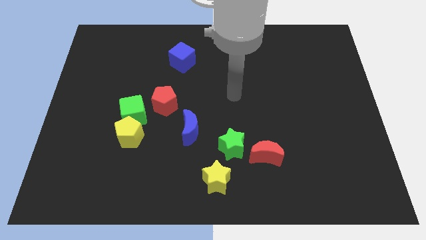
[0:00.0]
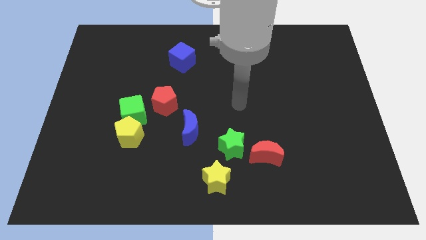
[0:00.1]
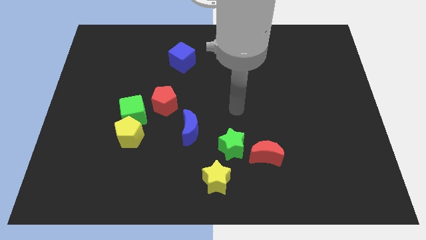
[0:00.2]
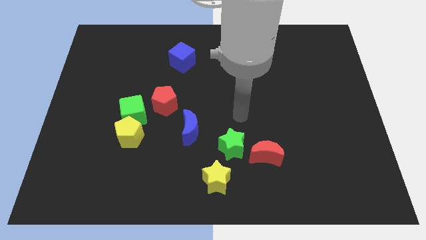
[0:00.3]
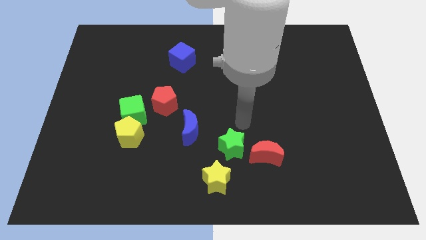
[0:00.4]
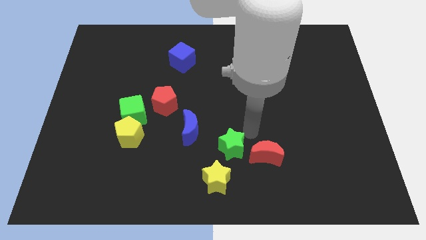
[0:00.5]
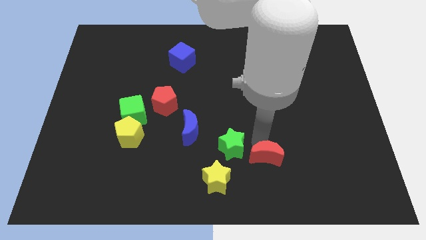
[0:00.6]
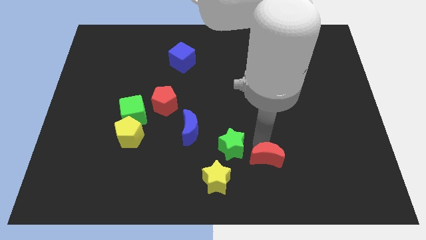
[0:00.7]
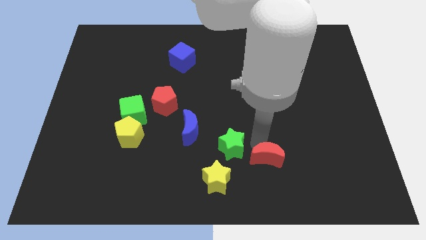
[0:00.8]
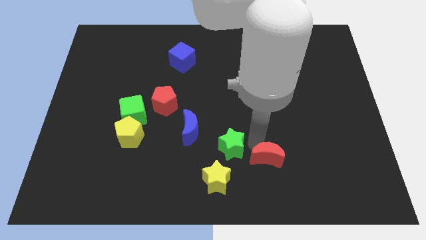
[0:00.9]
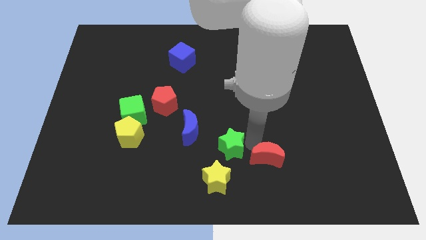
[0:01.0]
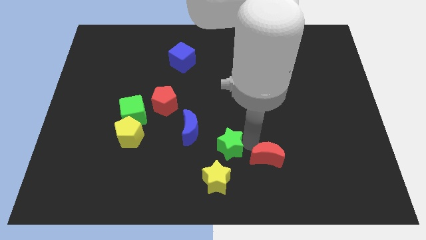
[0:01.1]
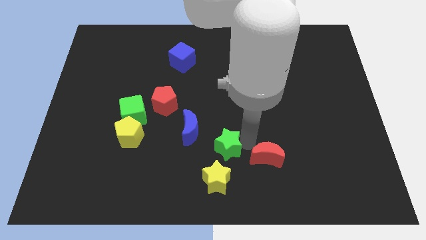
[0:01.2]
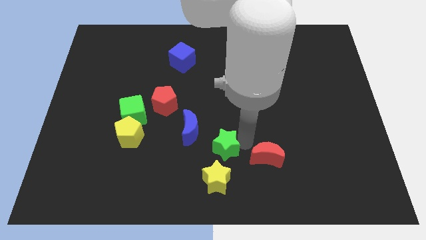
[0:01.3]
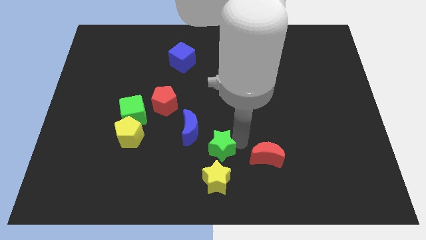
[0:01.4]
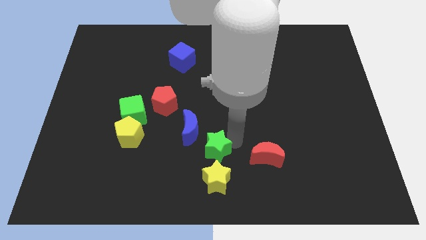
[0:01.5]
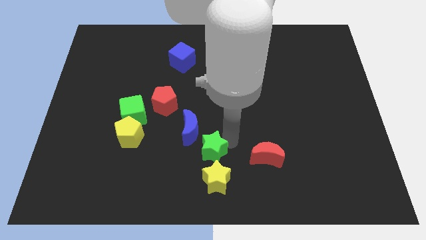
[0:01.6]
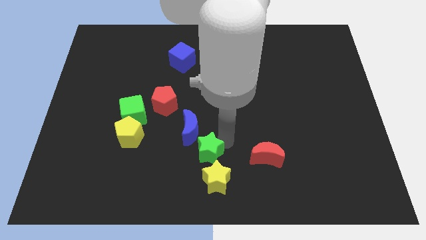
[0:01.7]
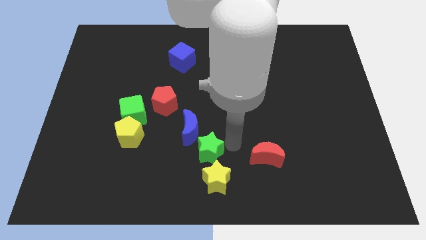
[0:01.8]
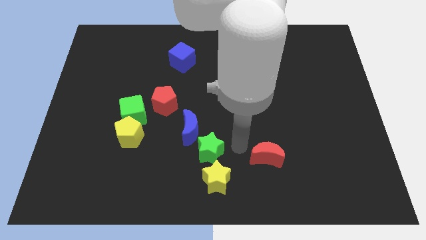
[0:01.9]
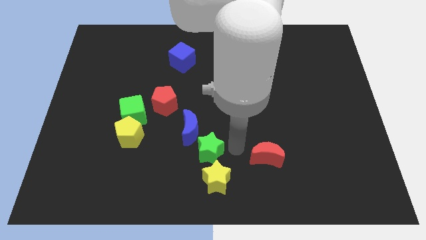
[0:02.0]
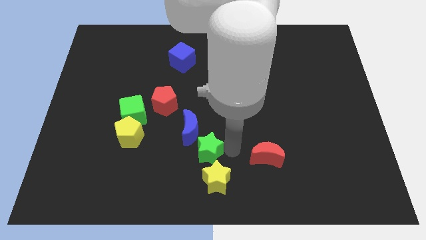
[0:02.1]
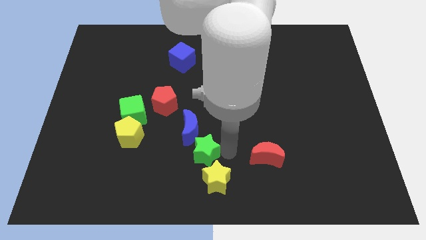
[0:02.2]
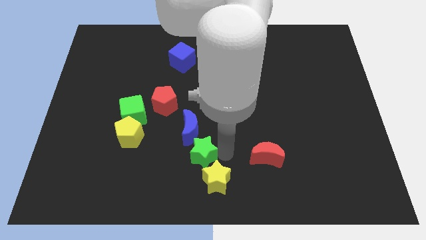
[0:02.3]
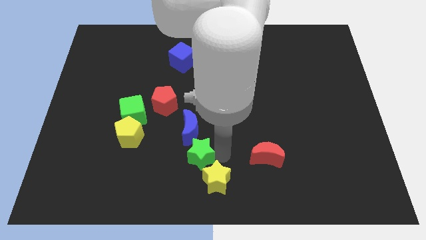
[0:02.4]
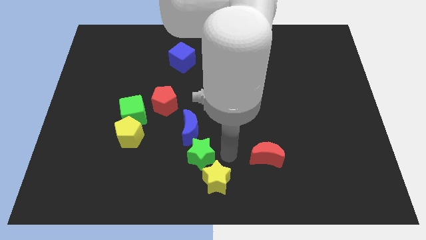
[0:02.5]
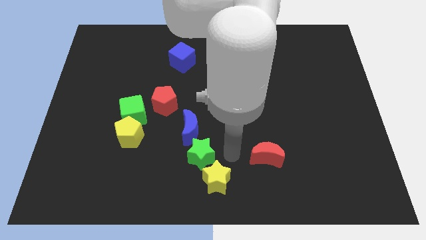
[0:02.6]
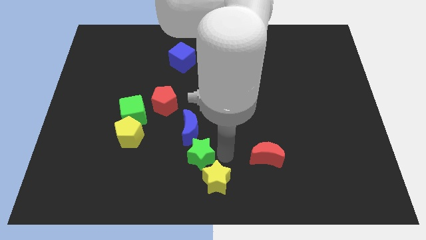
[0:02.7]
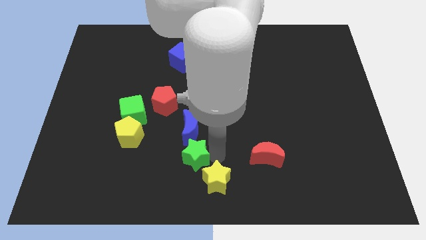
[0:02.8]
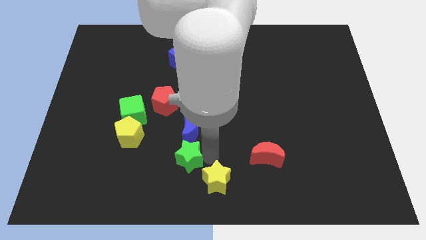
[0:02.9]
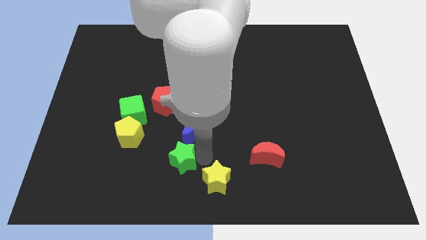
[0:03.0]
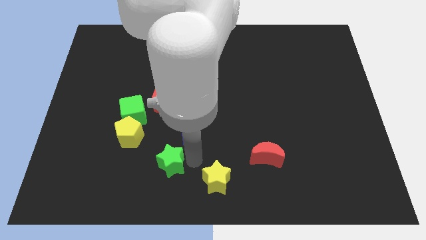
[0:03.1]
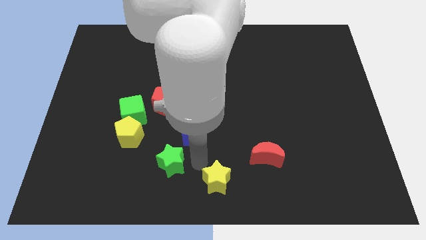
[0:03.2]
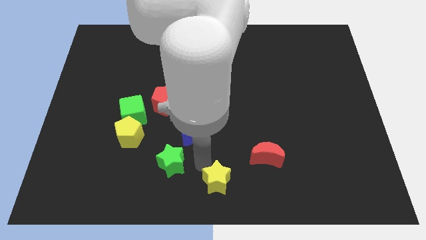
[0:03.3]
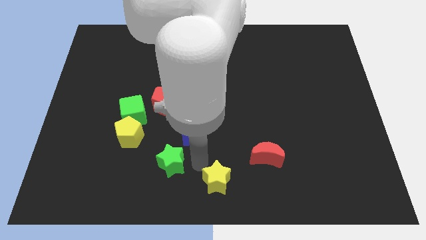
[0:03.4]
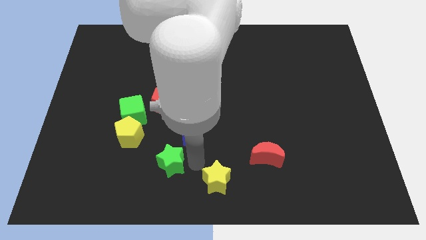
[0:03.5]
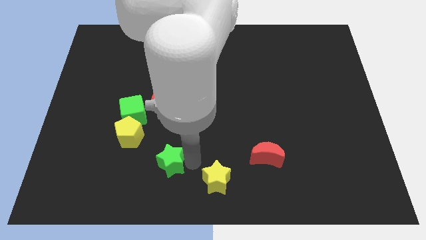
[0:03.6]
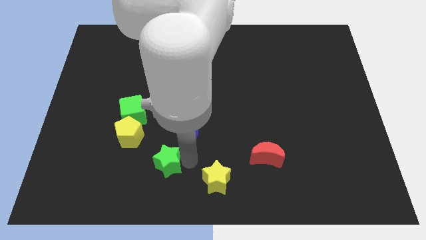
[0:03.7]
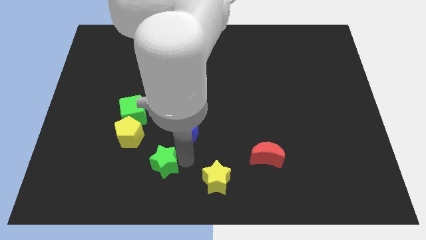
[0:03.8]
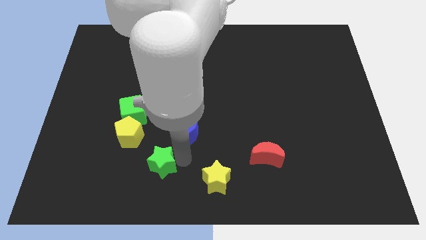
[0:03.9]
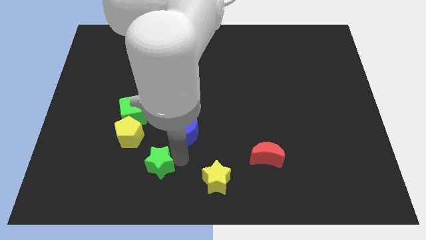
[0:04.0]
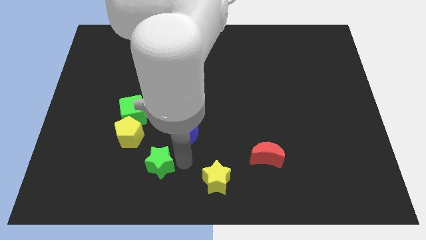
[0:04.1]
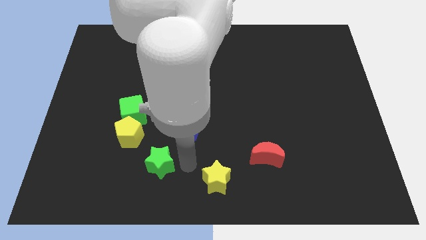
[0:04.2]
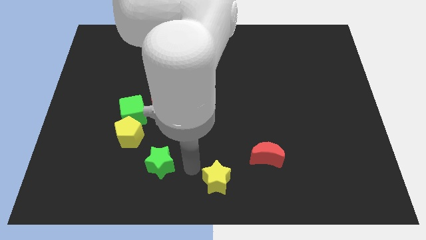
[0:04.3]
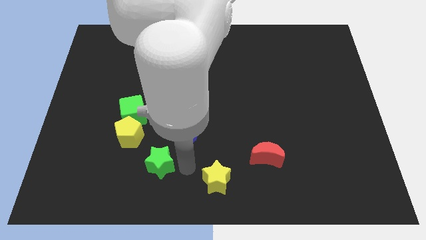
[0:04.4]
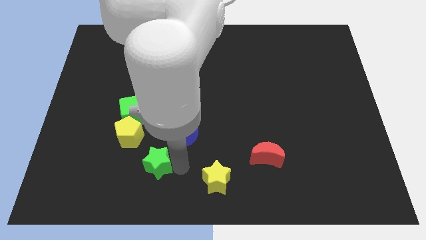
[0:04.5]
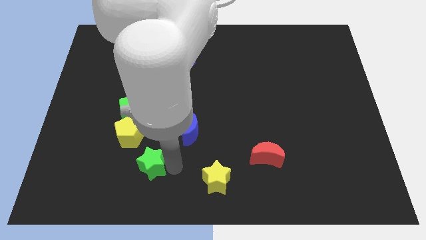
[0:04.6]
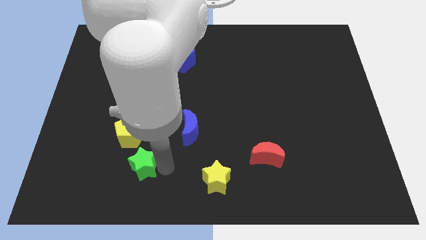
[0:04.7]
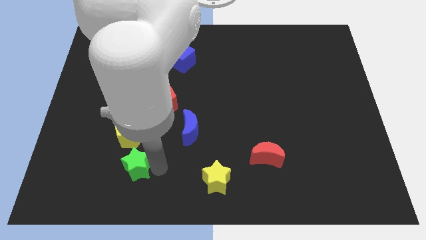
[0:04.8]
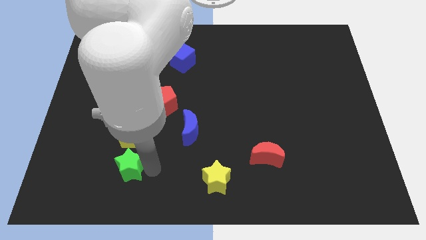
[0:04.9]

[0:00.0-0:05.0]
move the green star to the left

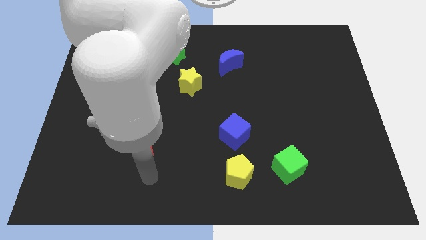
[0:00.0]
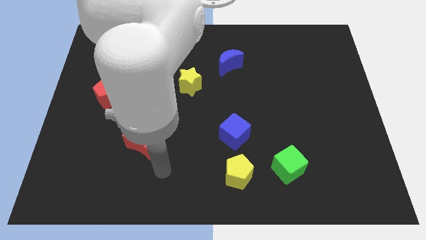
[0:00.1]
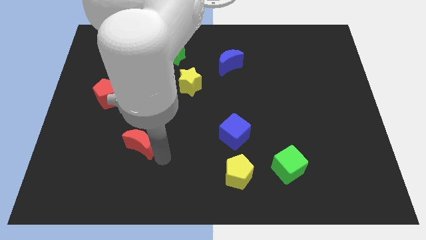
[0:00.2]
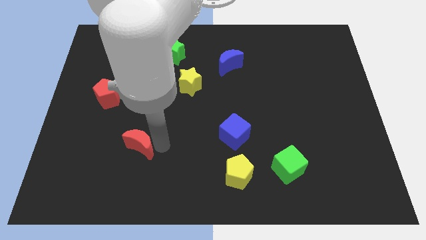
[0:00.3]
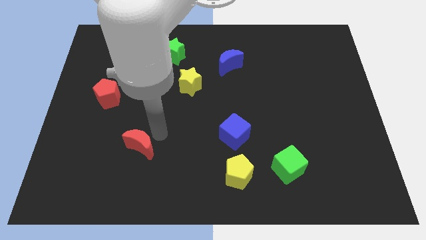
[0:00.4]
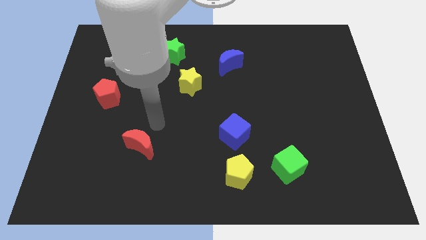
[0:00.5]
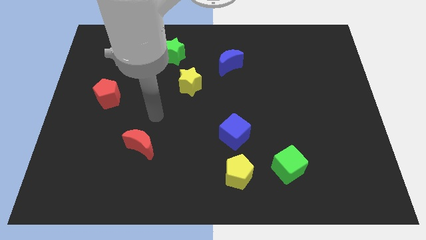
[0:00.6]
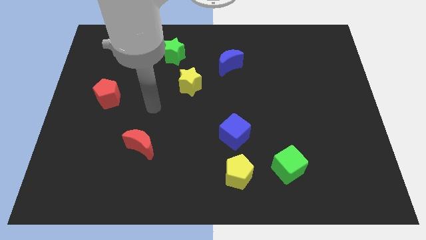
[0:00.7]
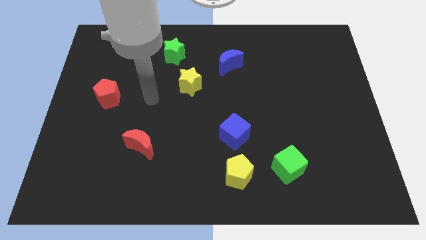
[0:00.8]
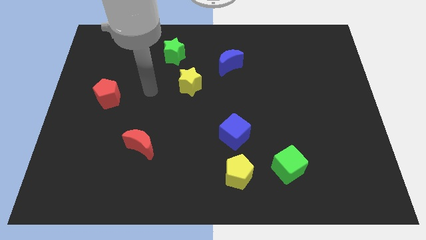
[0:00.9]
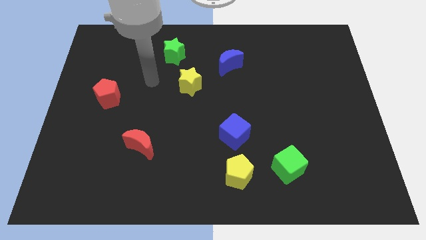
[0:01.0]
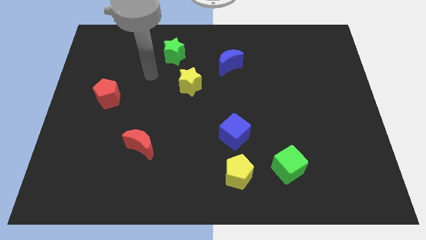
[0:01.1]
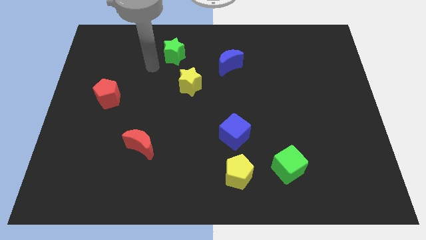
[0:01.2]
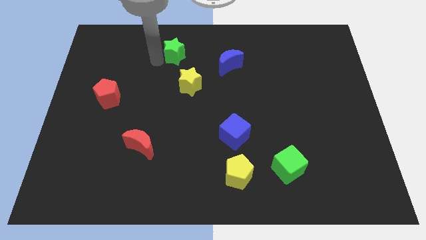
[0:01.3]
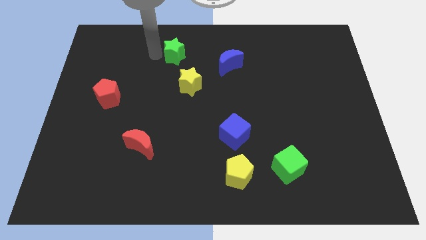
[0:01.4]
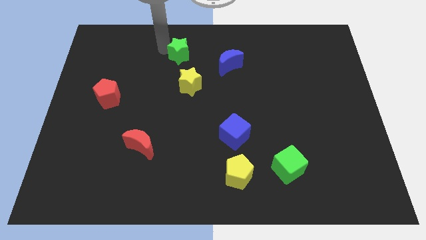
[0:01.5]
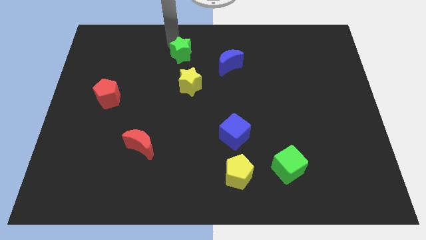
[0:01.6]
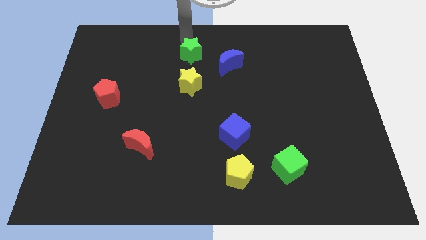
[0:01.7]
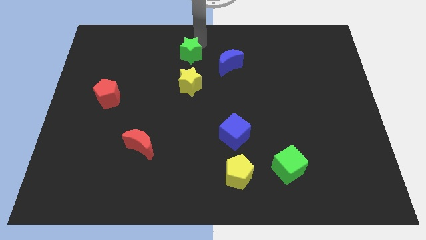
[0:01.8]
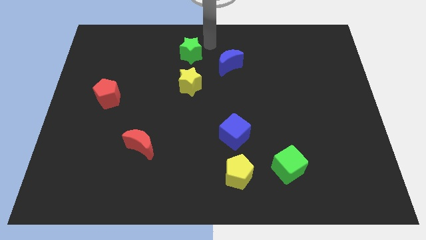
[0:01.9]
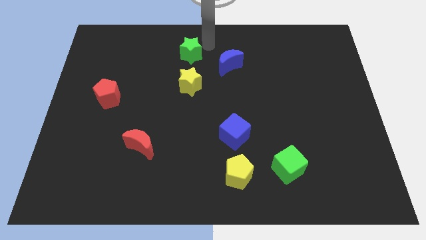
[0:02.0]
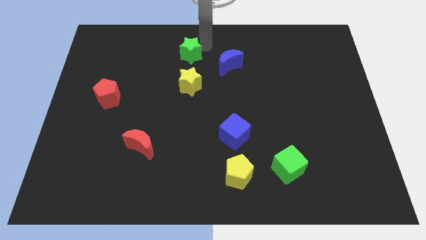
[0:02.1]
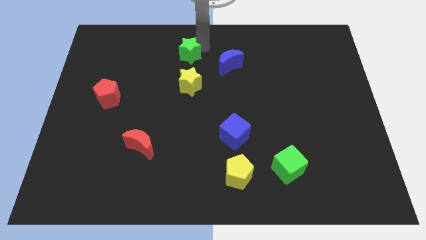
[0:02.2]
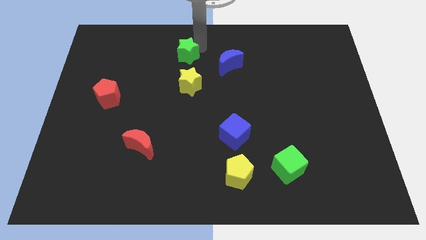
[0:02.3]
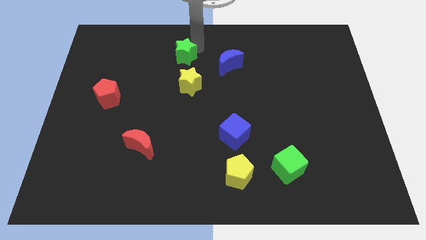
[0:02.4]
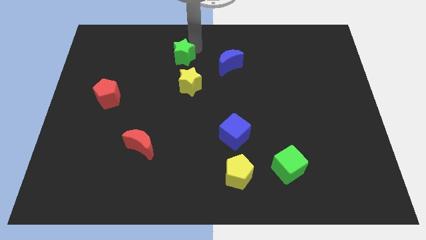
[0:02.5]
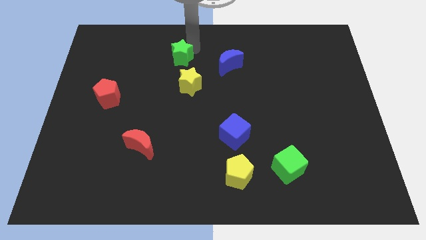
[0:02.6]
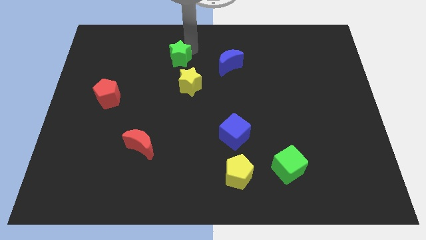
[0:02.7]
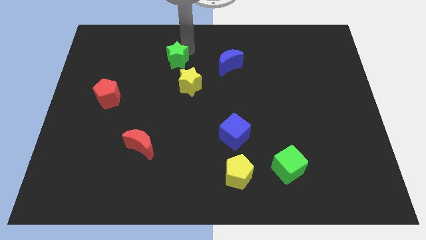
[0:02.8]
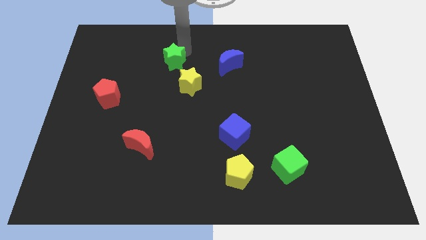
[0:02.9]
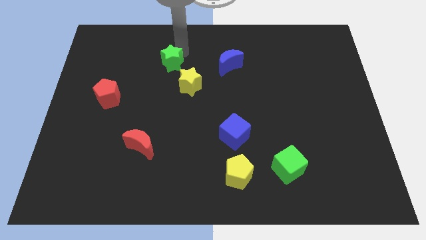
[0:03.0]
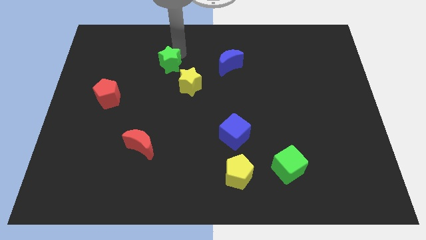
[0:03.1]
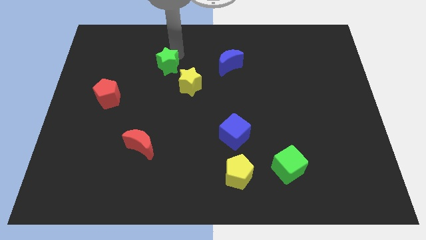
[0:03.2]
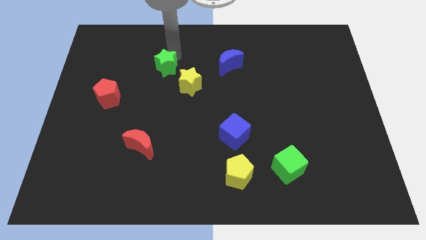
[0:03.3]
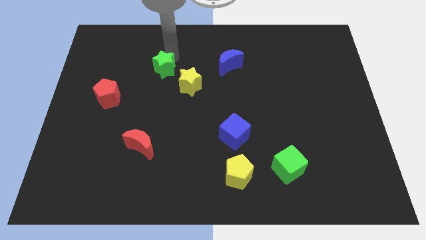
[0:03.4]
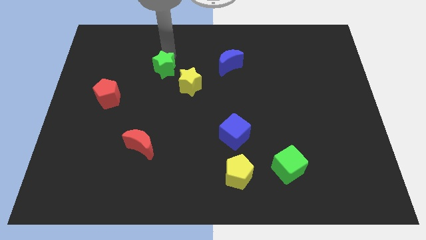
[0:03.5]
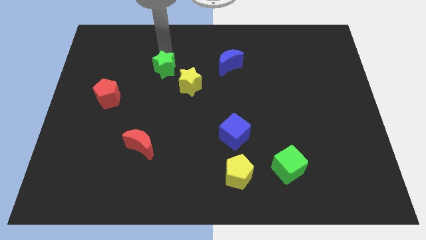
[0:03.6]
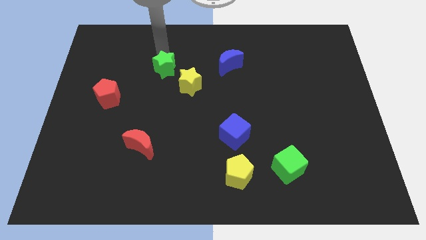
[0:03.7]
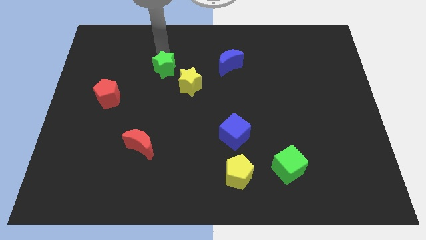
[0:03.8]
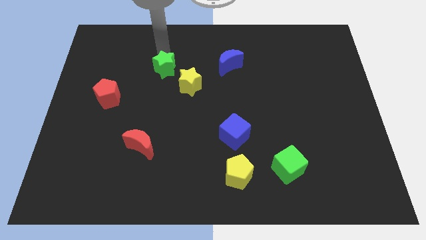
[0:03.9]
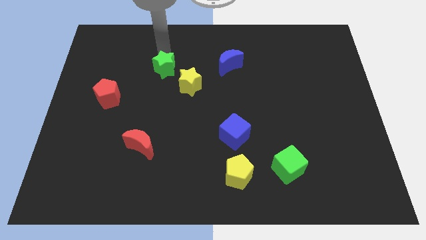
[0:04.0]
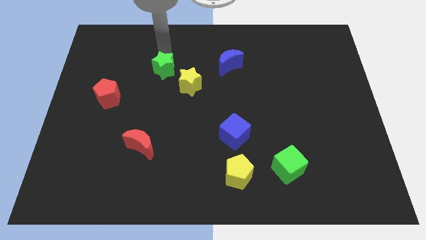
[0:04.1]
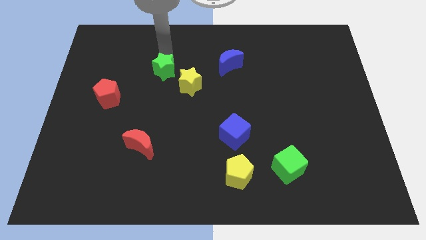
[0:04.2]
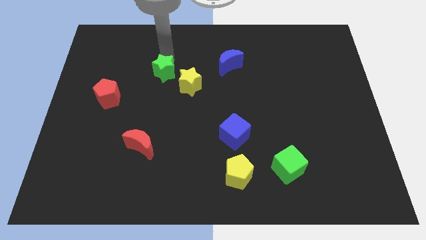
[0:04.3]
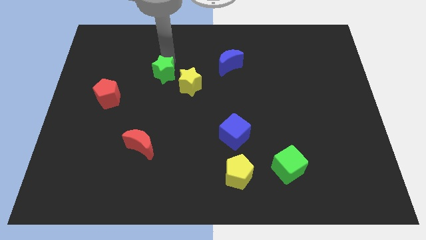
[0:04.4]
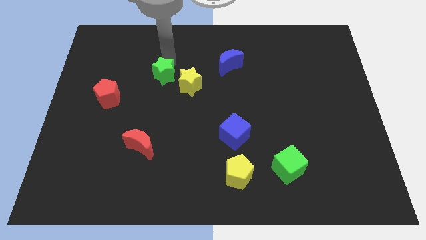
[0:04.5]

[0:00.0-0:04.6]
slide the green star downwards a little bit
